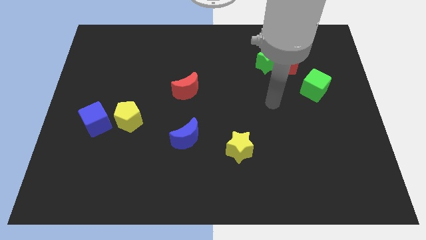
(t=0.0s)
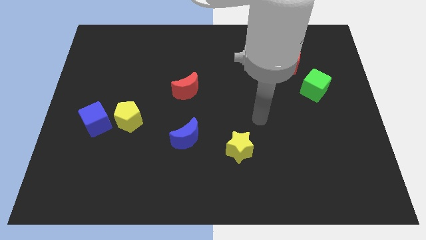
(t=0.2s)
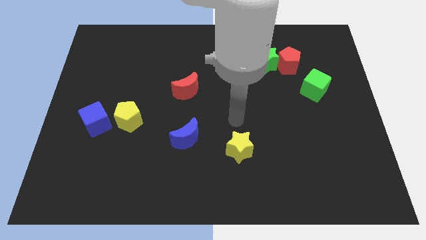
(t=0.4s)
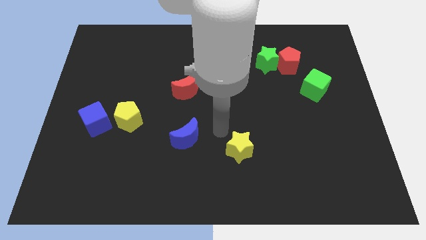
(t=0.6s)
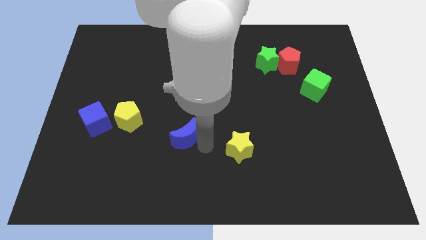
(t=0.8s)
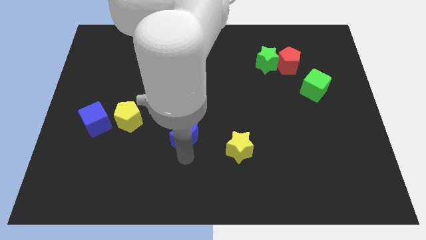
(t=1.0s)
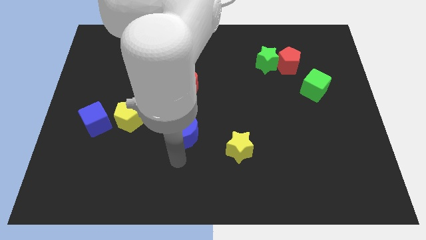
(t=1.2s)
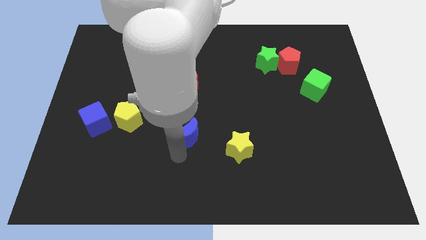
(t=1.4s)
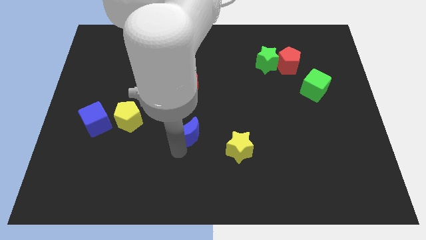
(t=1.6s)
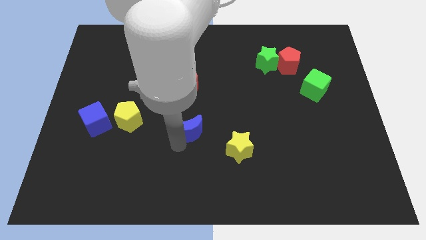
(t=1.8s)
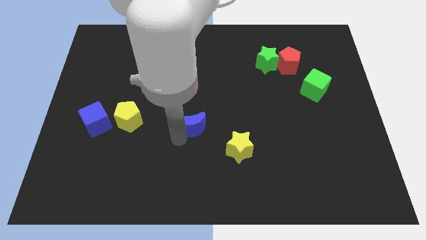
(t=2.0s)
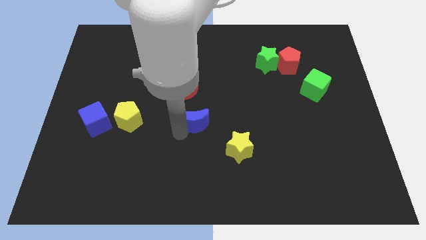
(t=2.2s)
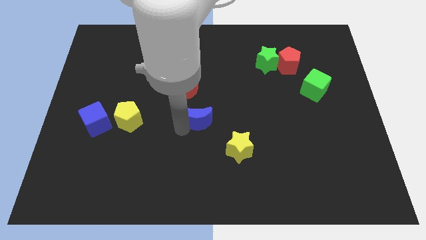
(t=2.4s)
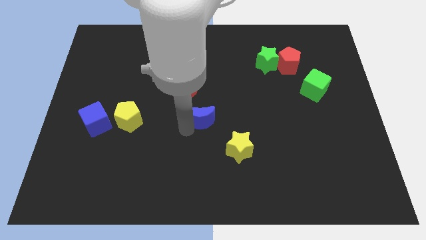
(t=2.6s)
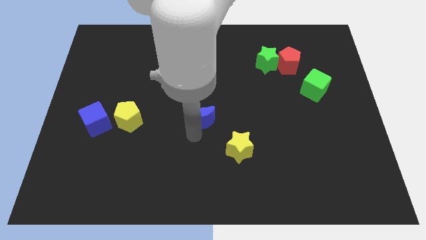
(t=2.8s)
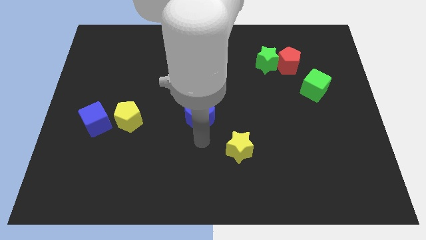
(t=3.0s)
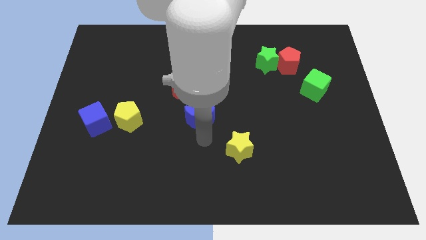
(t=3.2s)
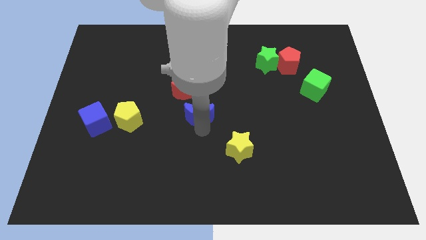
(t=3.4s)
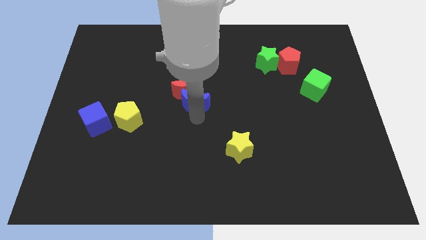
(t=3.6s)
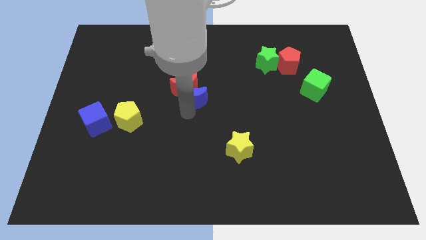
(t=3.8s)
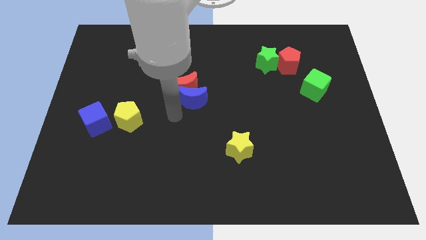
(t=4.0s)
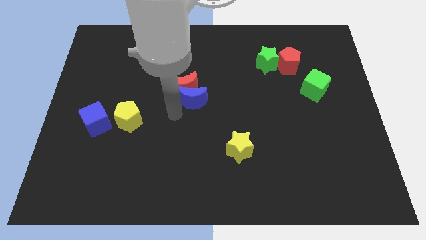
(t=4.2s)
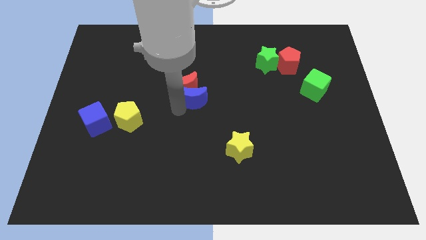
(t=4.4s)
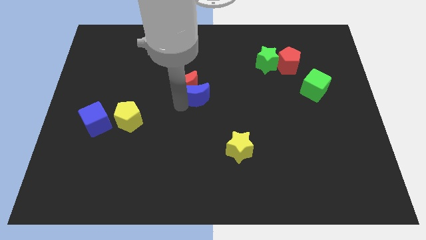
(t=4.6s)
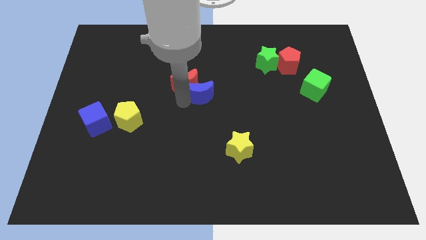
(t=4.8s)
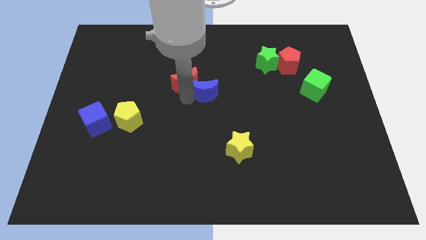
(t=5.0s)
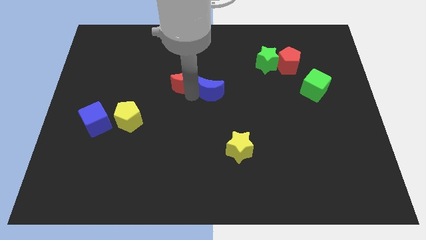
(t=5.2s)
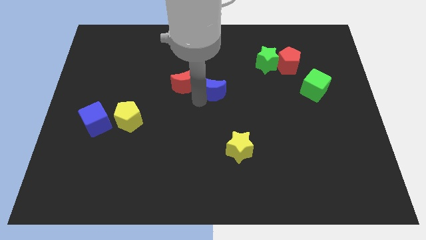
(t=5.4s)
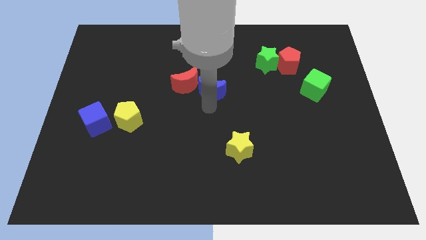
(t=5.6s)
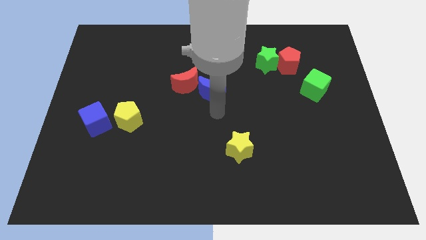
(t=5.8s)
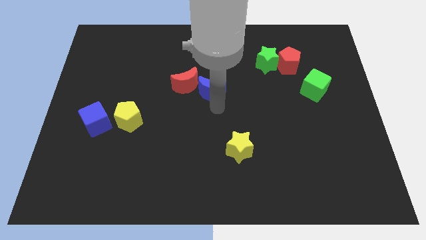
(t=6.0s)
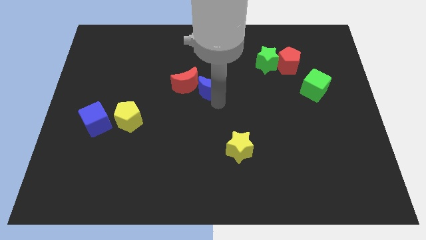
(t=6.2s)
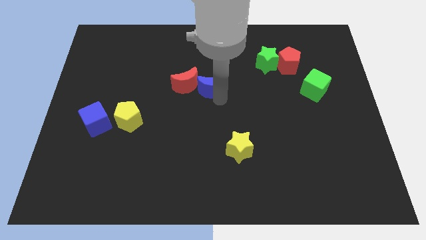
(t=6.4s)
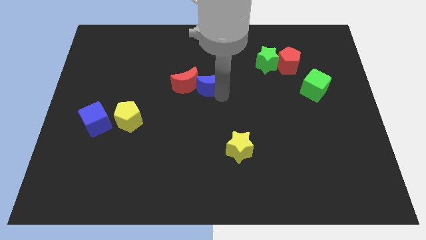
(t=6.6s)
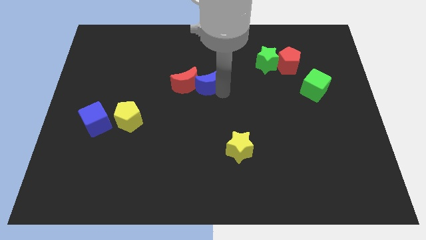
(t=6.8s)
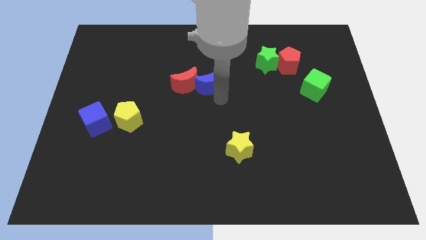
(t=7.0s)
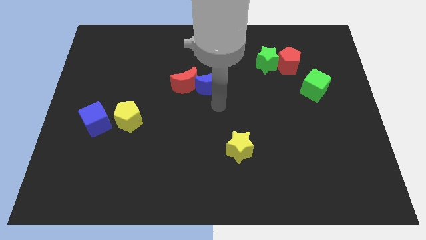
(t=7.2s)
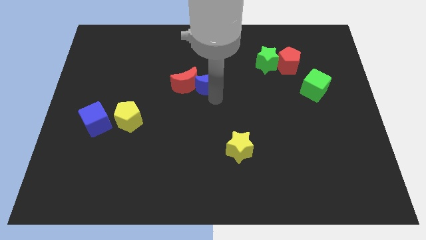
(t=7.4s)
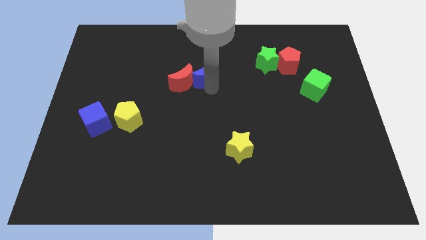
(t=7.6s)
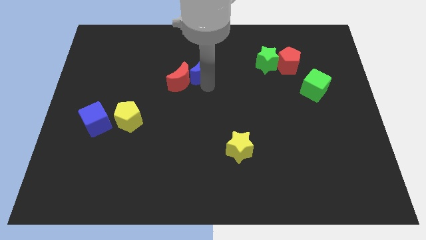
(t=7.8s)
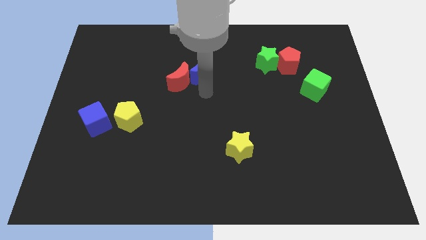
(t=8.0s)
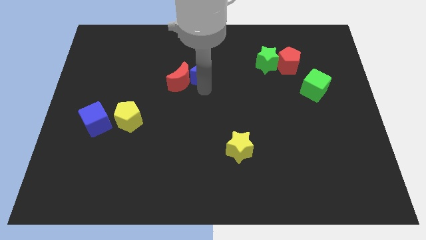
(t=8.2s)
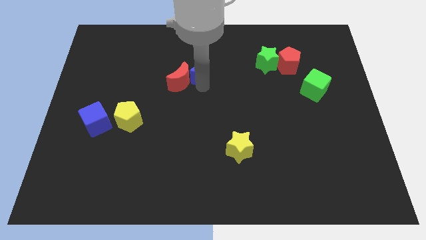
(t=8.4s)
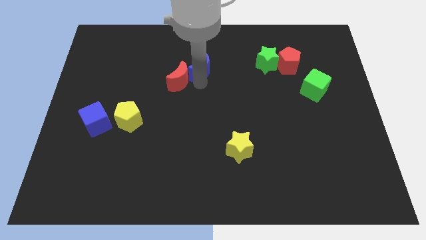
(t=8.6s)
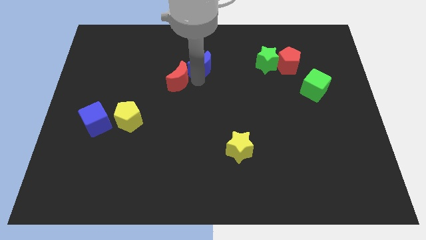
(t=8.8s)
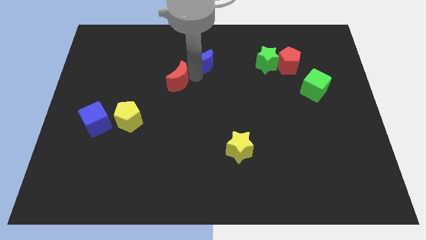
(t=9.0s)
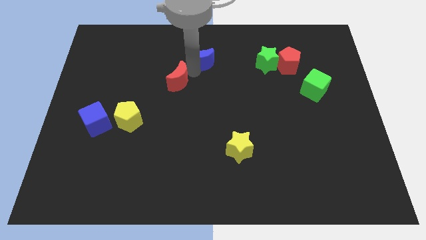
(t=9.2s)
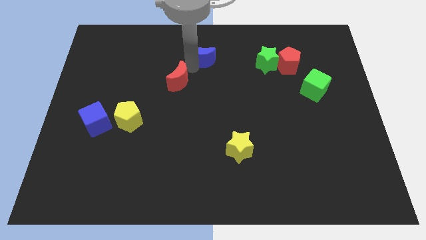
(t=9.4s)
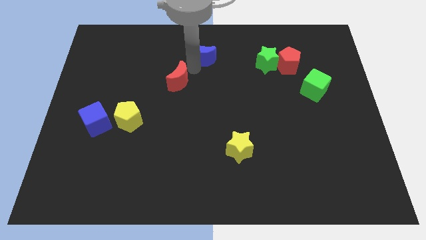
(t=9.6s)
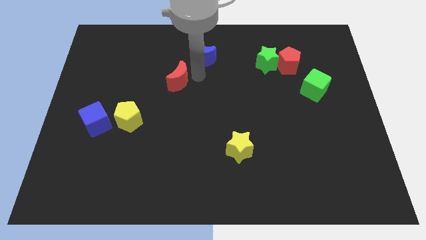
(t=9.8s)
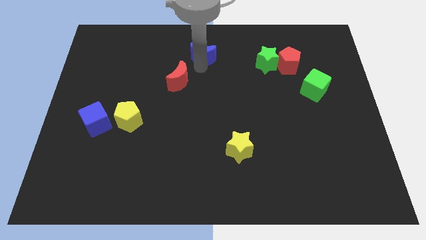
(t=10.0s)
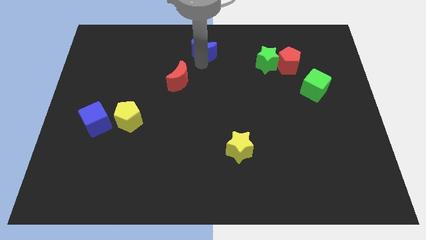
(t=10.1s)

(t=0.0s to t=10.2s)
slide the blue moon to the top

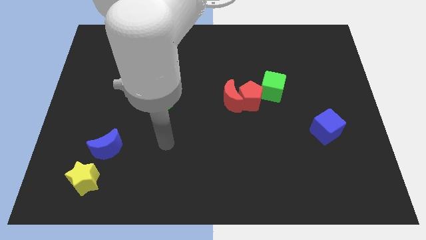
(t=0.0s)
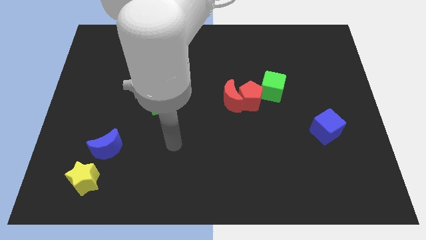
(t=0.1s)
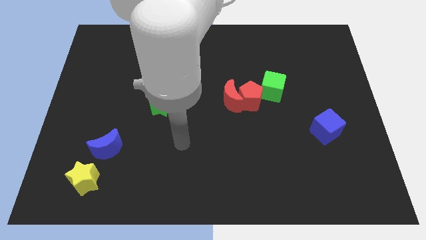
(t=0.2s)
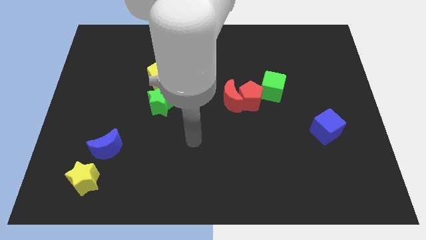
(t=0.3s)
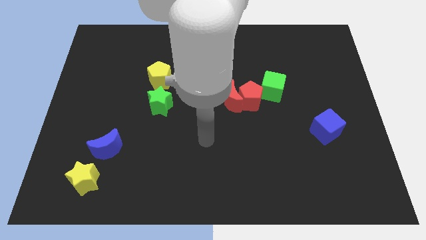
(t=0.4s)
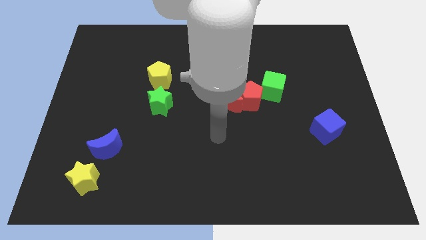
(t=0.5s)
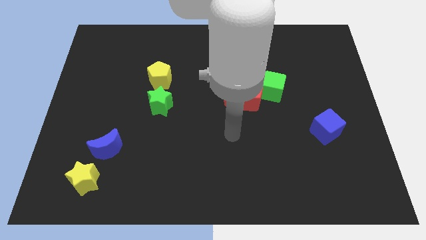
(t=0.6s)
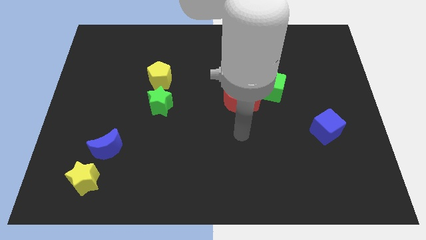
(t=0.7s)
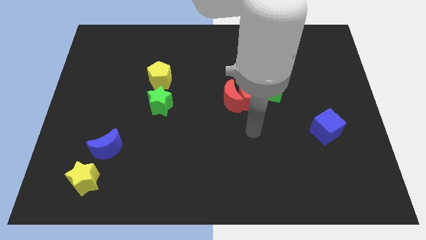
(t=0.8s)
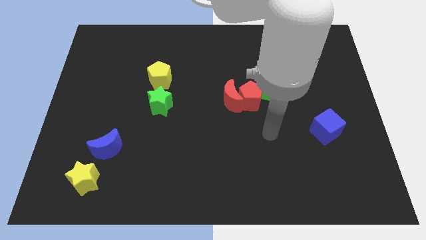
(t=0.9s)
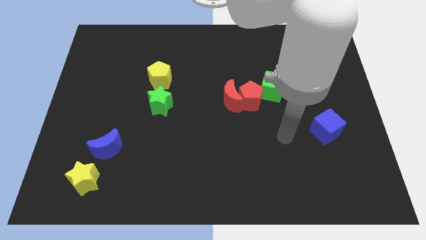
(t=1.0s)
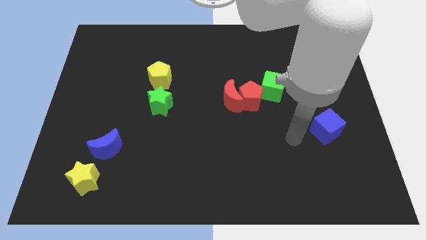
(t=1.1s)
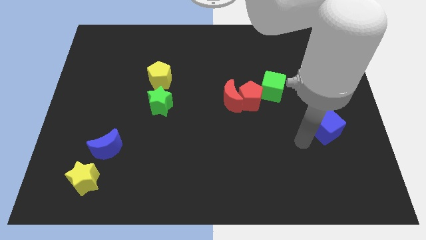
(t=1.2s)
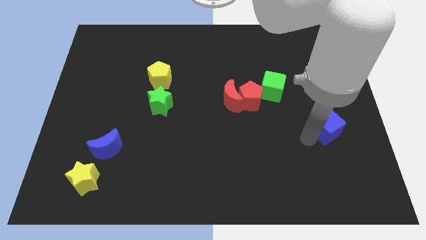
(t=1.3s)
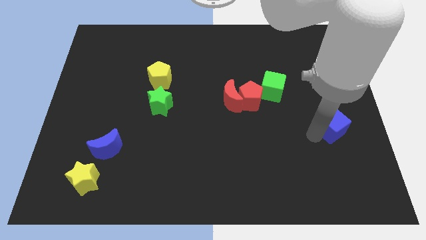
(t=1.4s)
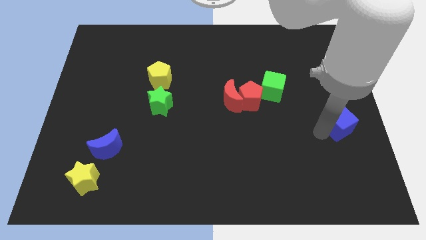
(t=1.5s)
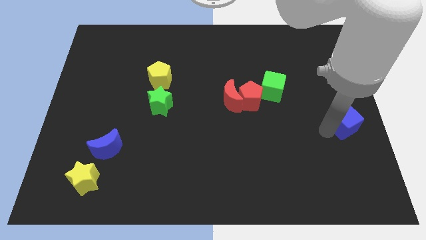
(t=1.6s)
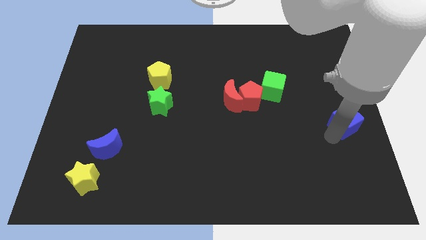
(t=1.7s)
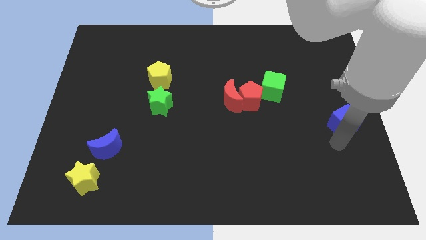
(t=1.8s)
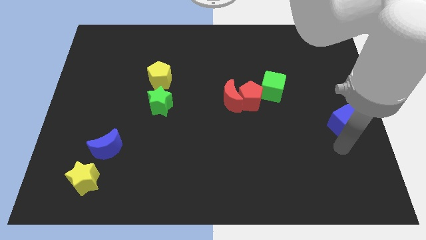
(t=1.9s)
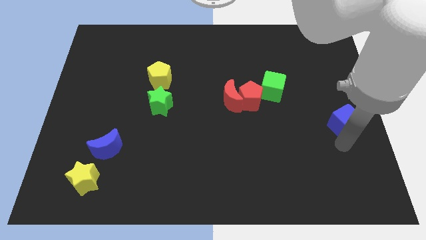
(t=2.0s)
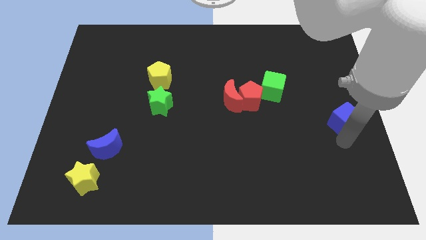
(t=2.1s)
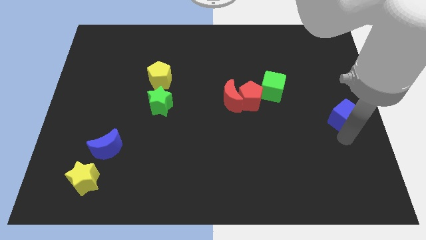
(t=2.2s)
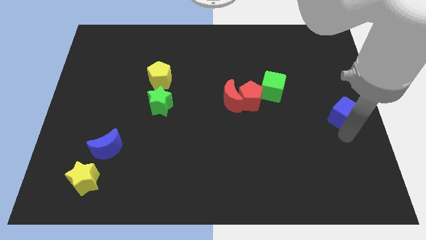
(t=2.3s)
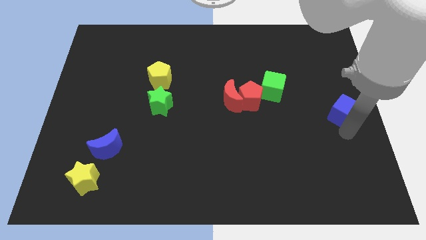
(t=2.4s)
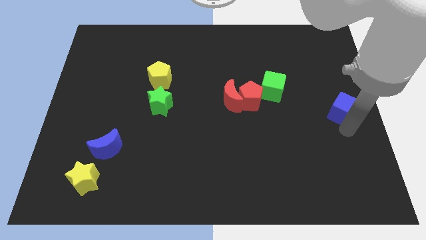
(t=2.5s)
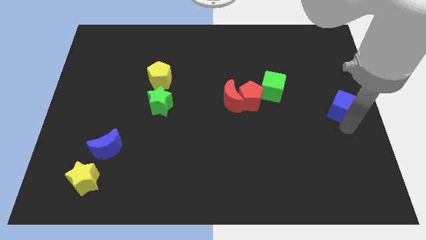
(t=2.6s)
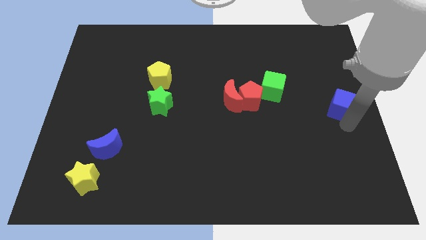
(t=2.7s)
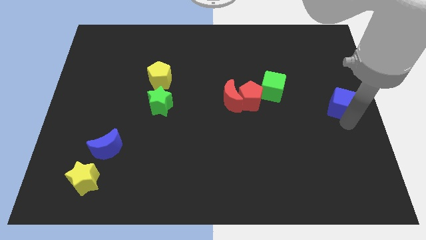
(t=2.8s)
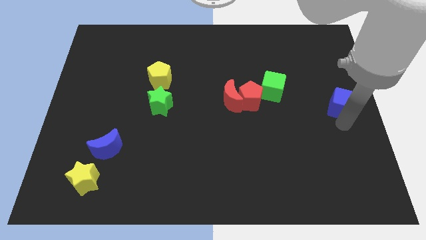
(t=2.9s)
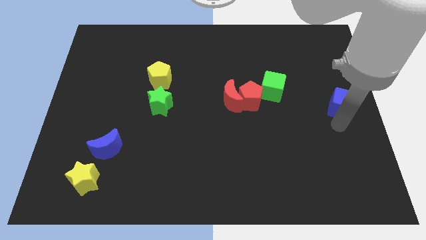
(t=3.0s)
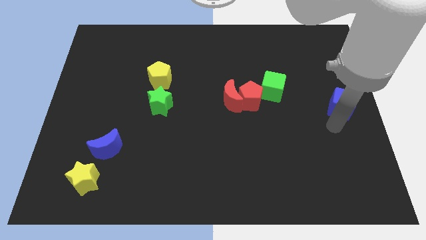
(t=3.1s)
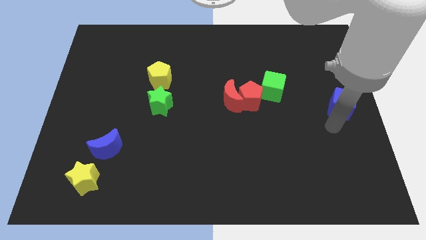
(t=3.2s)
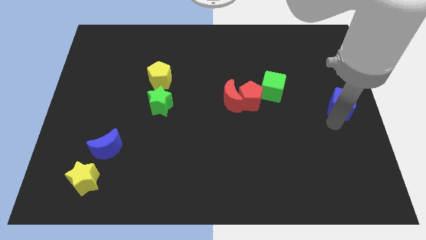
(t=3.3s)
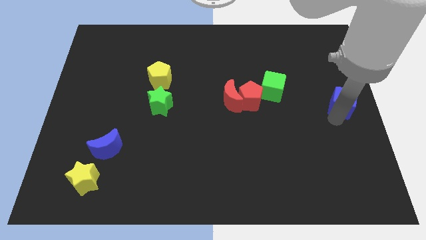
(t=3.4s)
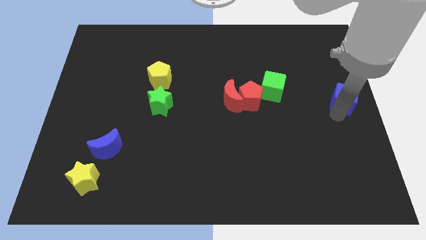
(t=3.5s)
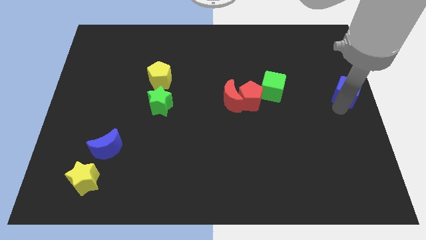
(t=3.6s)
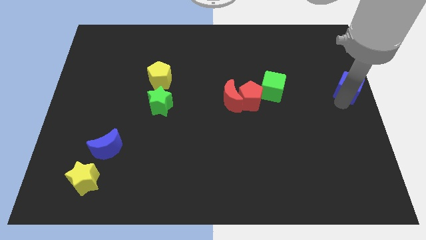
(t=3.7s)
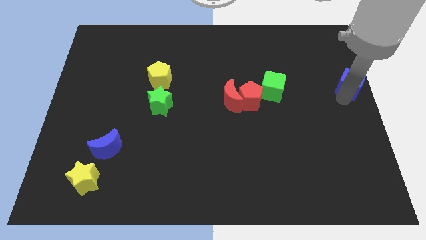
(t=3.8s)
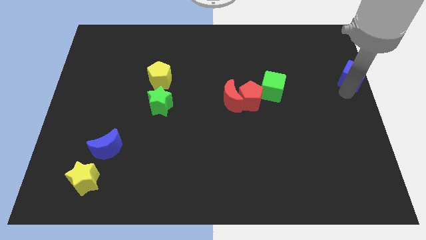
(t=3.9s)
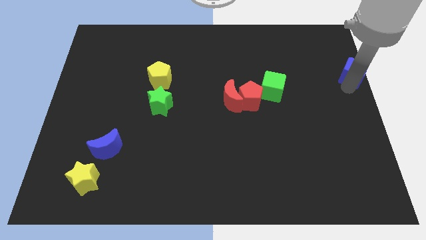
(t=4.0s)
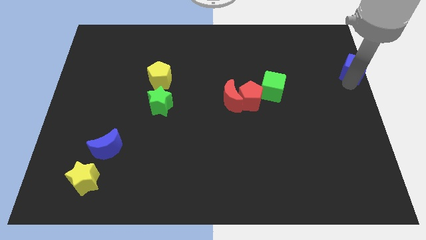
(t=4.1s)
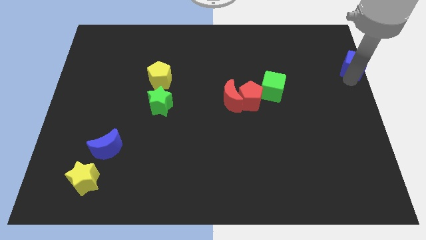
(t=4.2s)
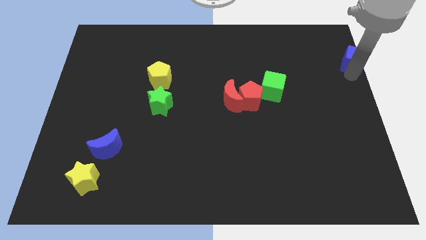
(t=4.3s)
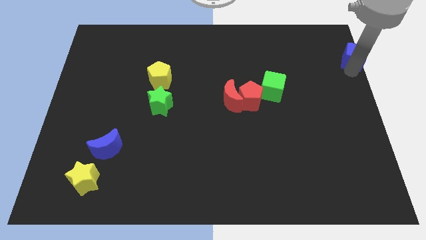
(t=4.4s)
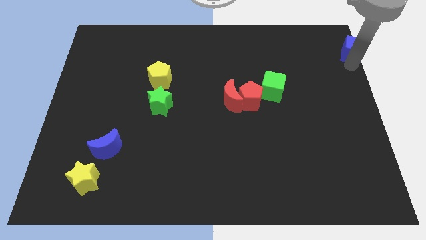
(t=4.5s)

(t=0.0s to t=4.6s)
slide the blue cube to the upper right corner
